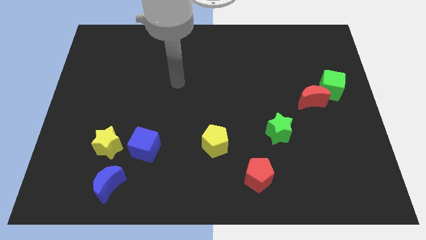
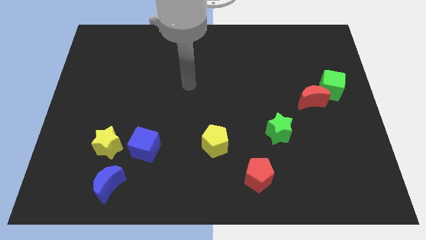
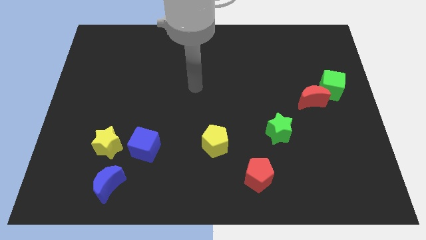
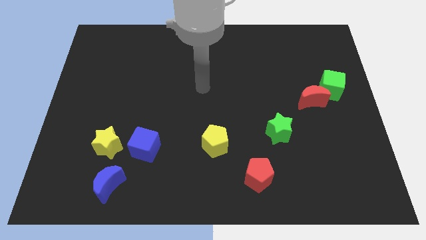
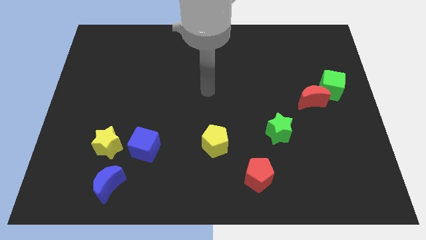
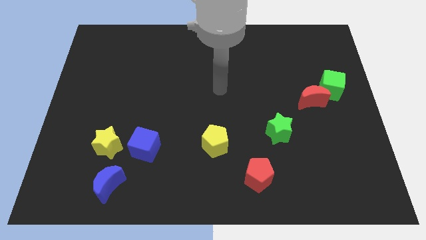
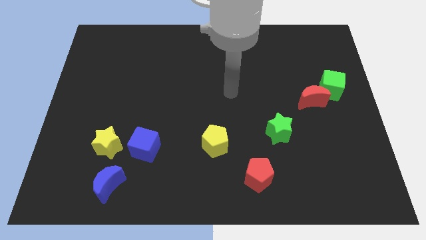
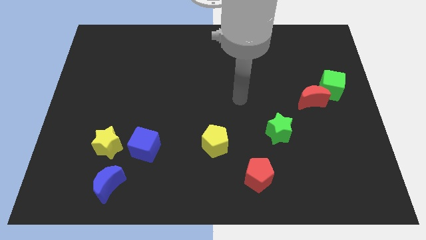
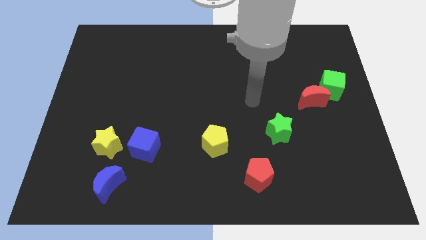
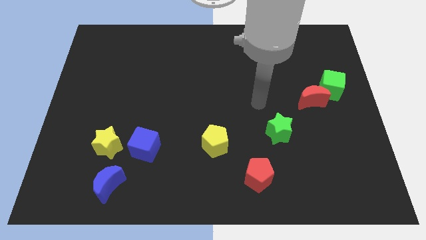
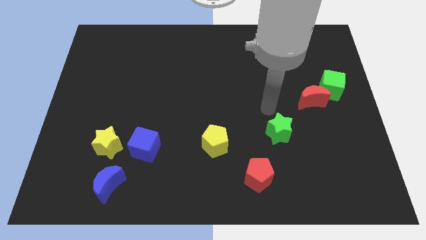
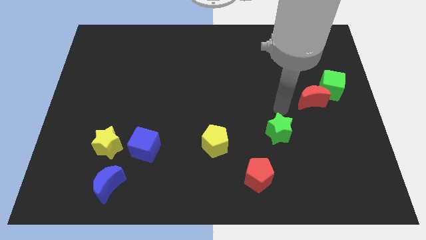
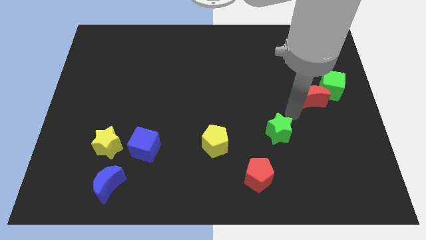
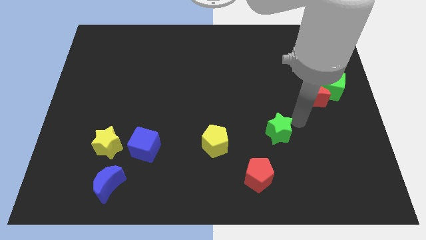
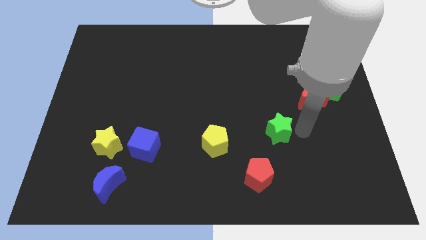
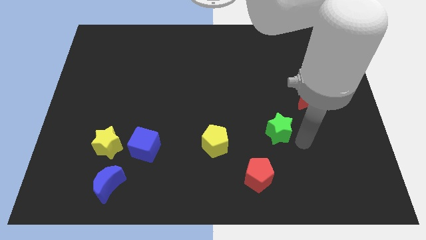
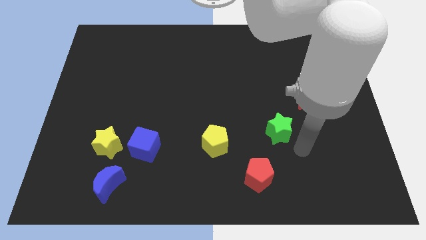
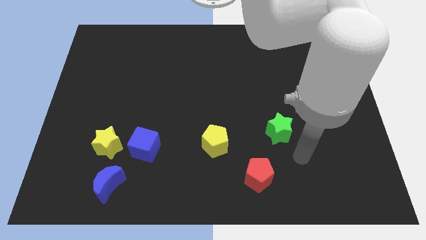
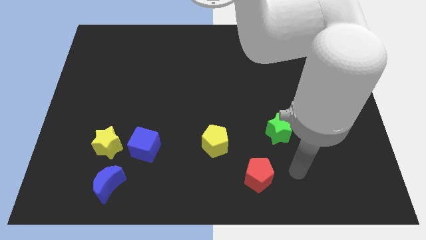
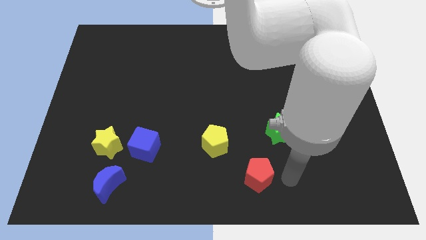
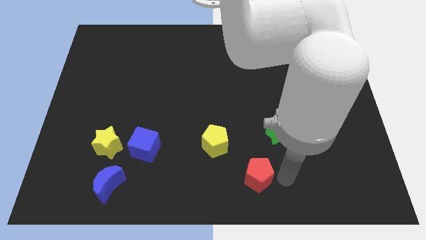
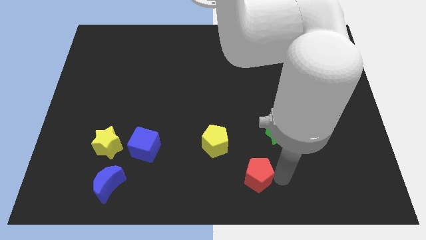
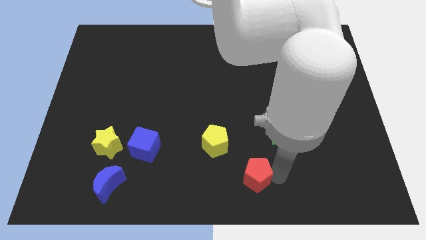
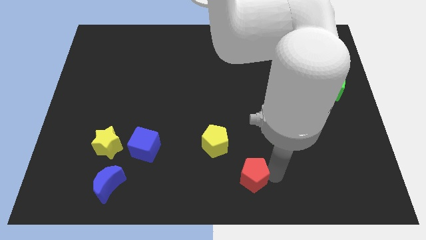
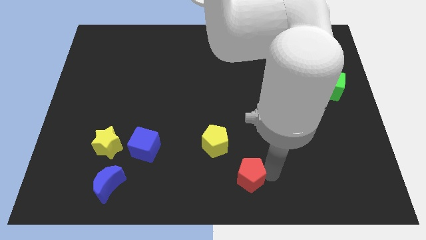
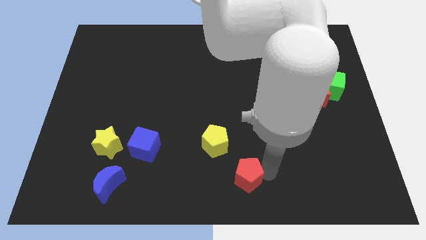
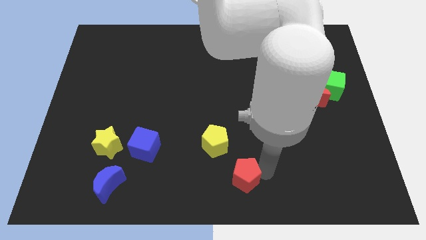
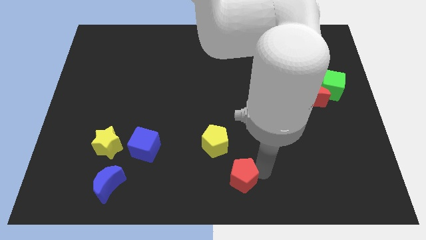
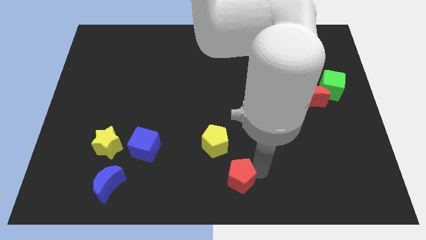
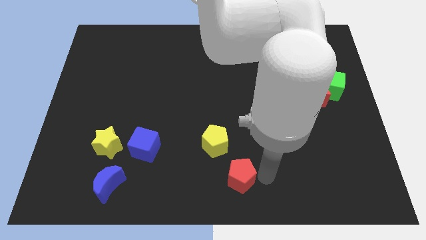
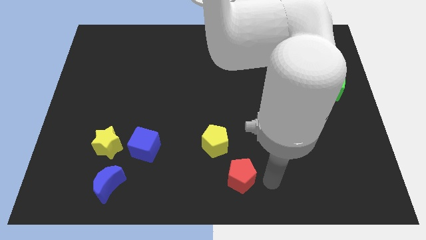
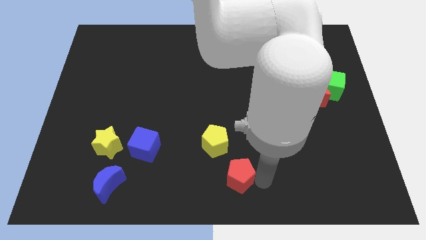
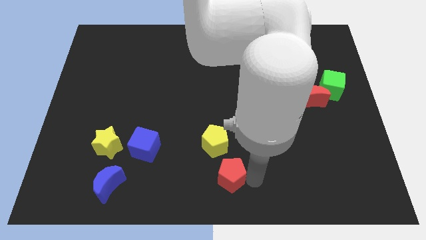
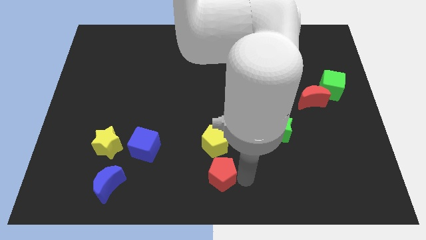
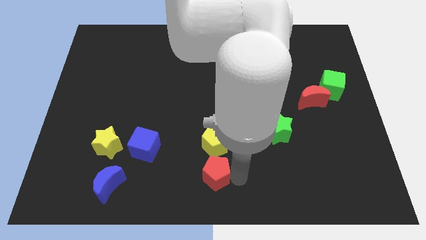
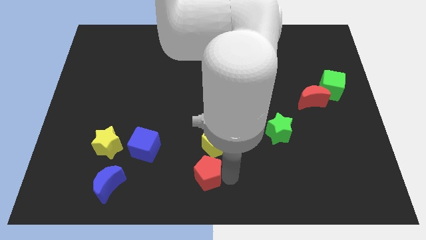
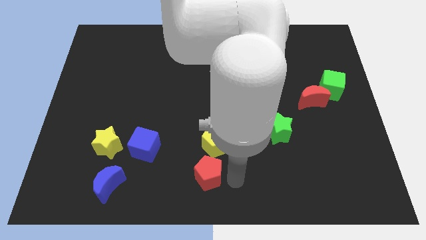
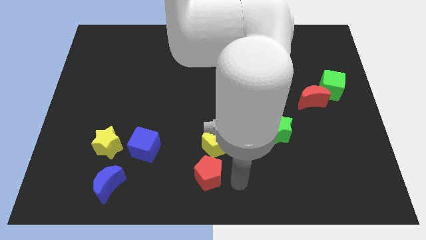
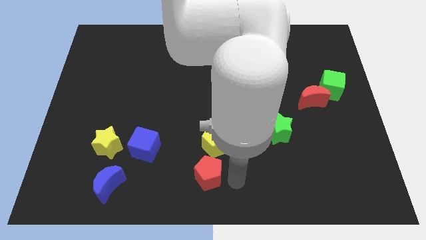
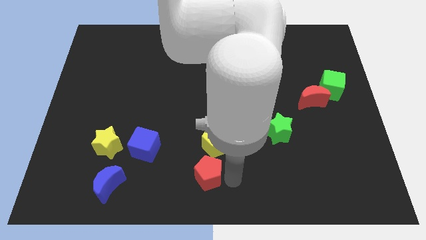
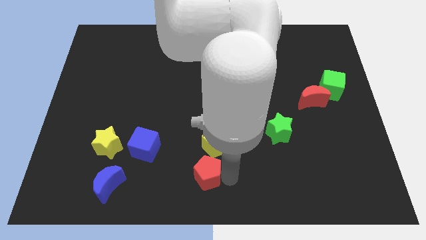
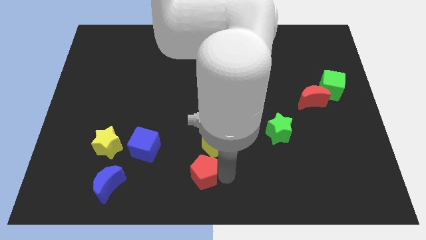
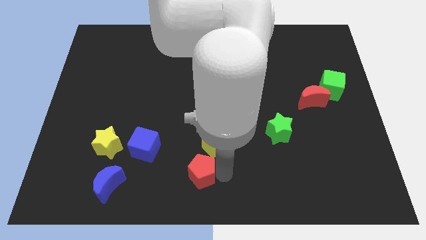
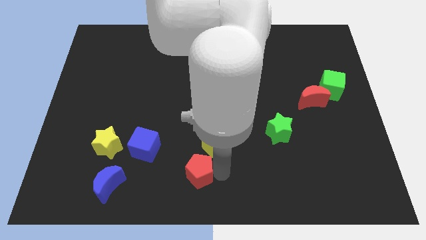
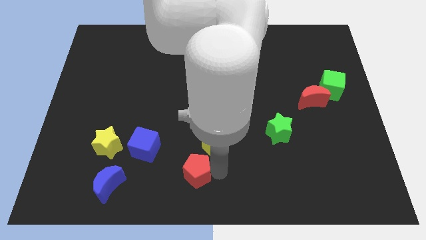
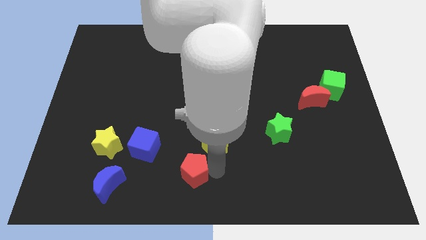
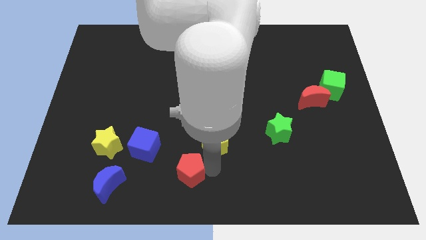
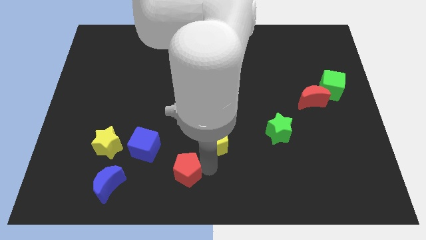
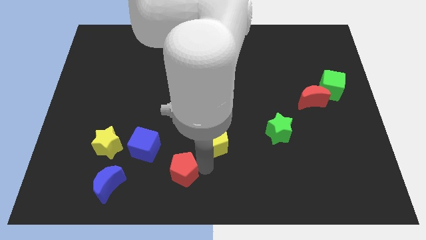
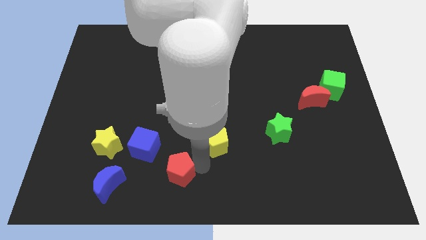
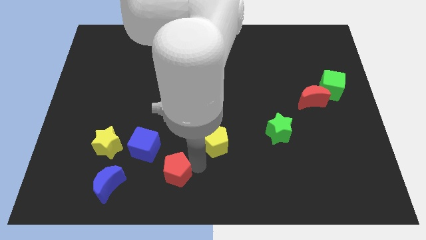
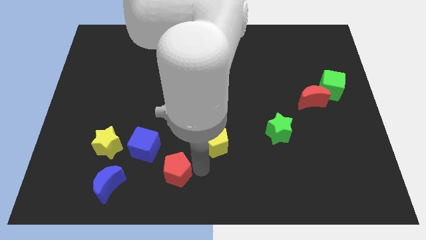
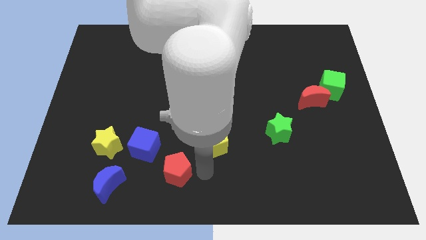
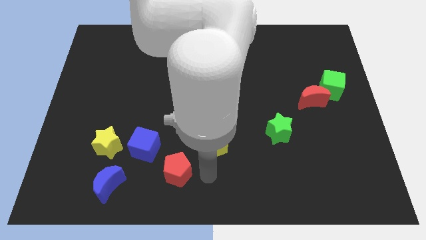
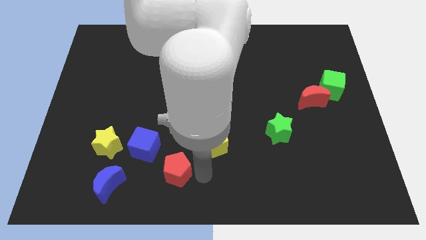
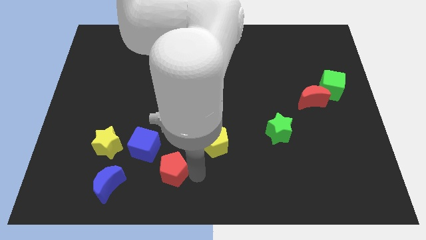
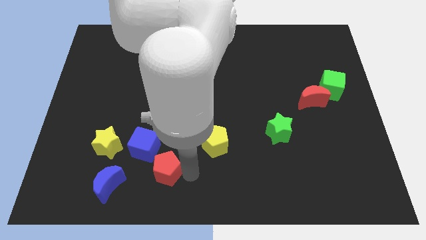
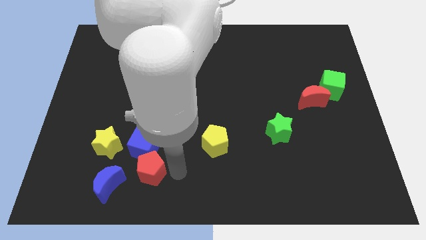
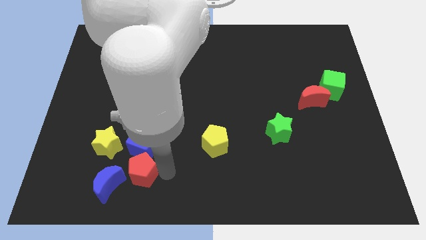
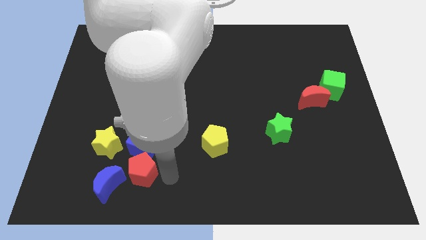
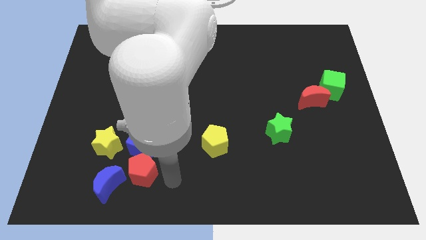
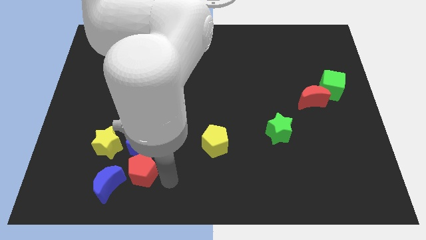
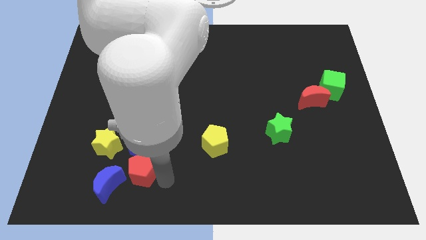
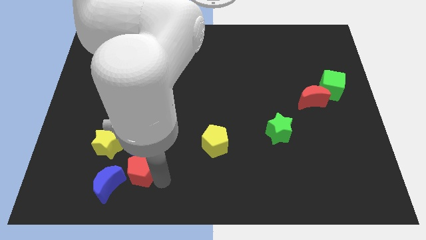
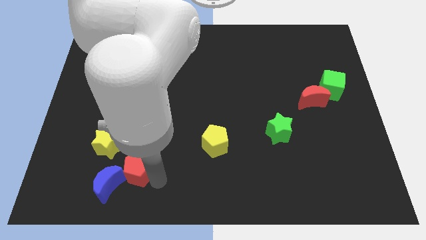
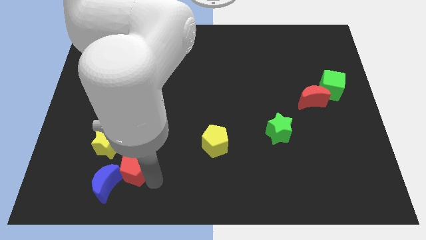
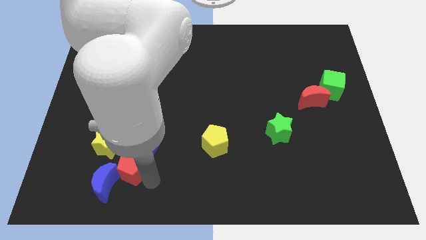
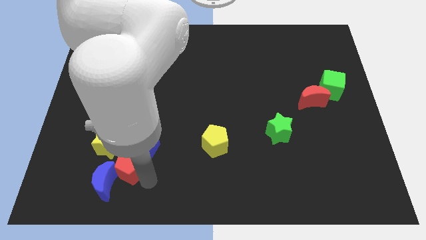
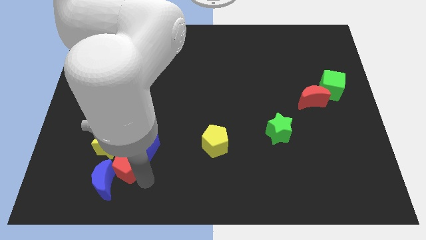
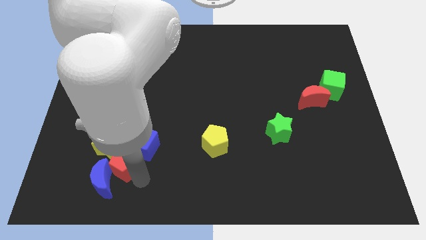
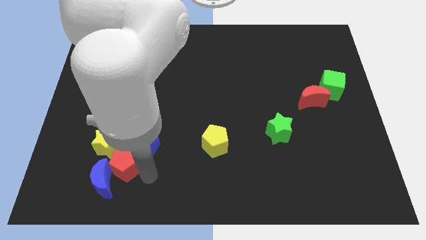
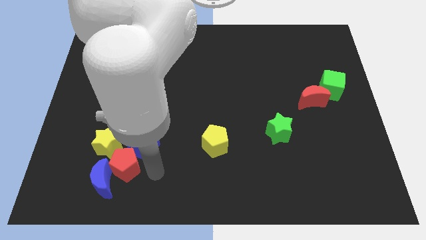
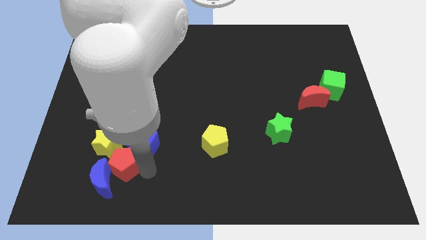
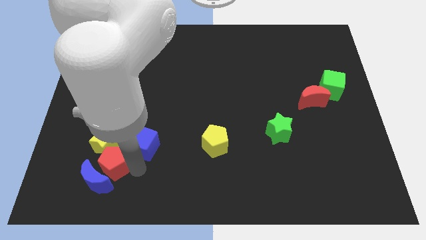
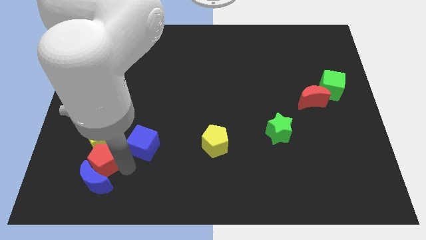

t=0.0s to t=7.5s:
push the red pentagon diagonally up and to the left of the blue moon

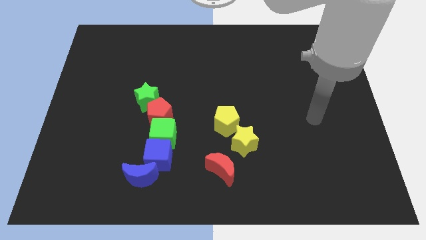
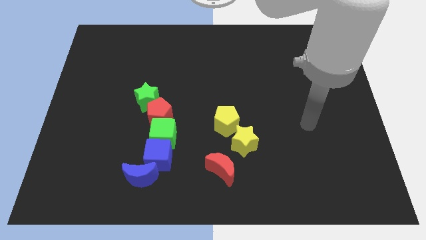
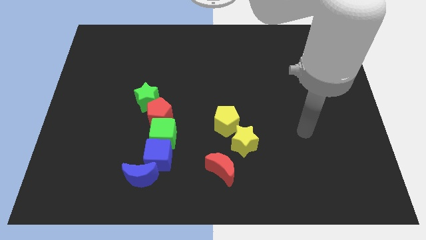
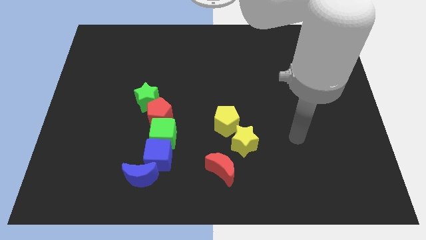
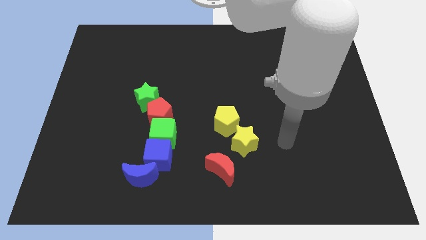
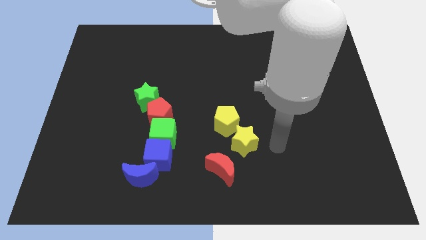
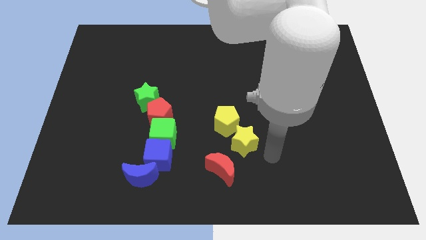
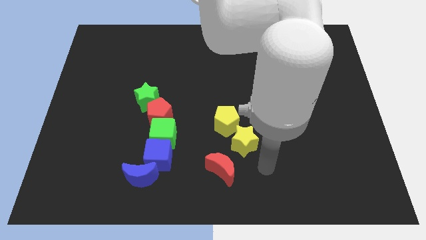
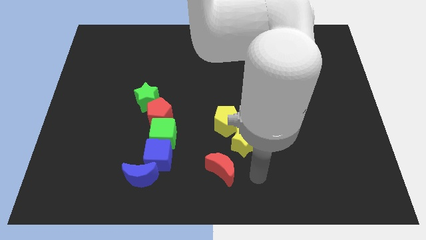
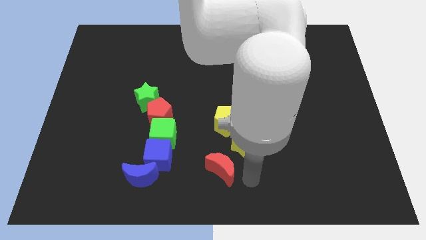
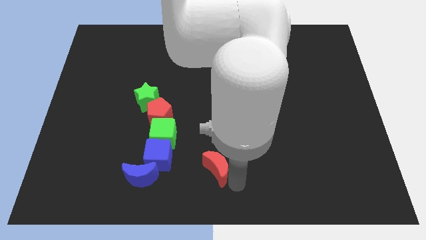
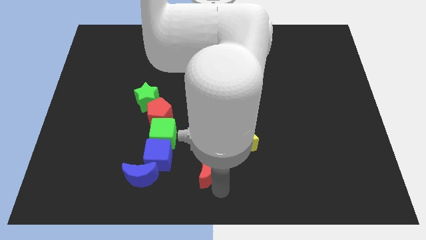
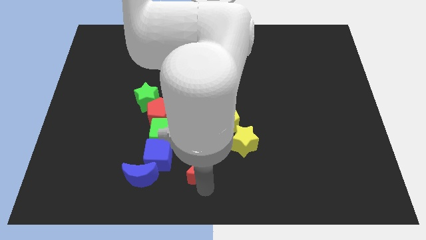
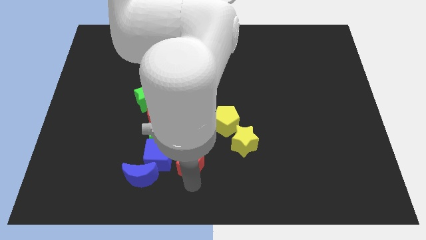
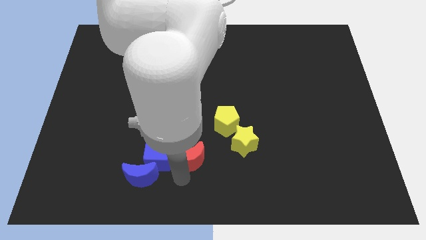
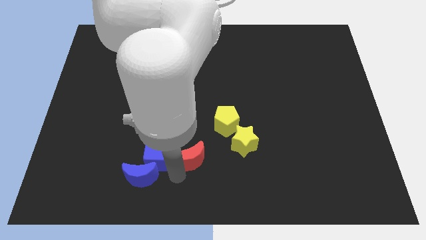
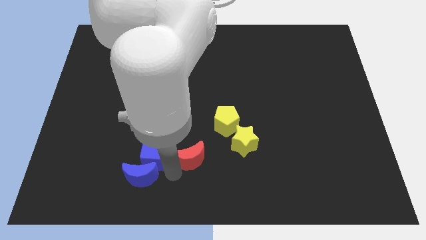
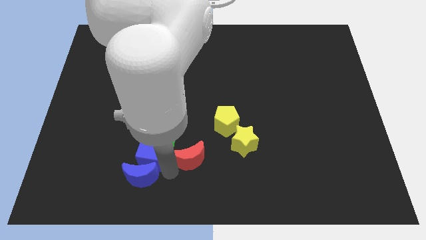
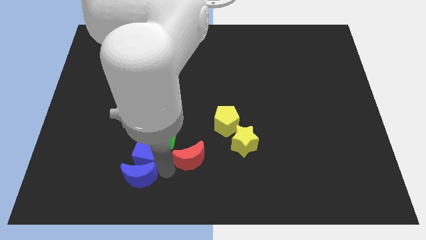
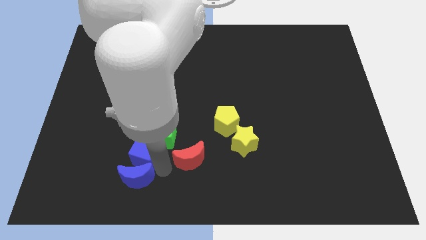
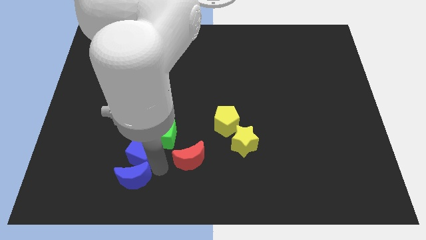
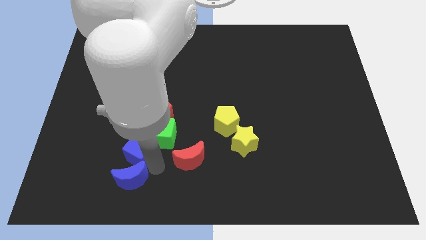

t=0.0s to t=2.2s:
slide the blue cube to the bottom left side of the red pentagon
